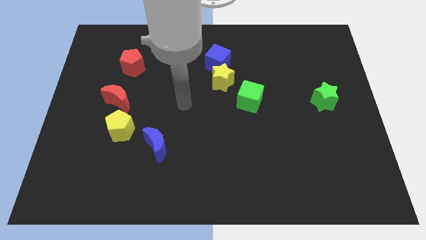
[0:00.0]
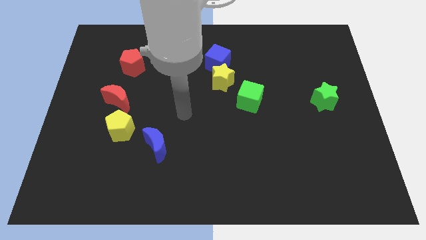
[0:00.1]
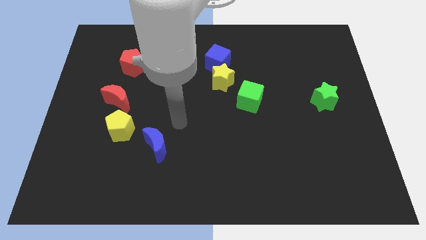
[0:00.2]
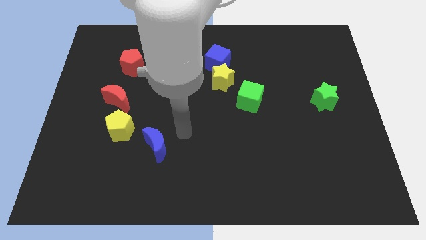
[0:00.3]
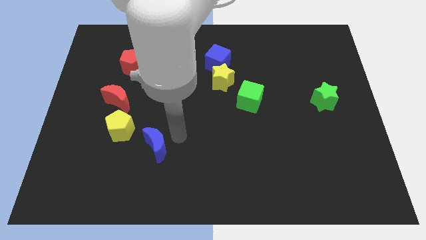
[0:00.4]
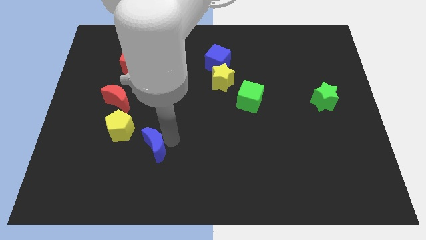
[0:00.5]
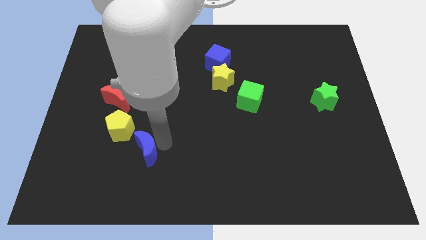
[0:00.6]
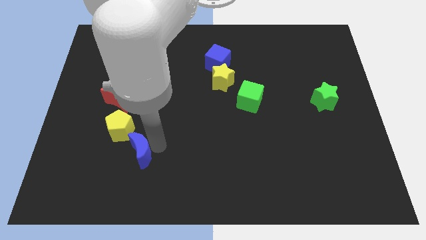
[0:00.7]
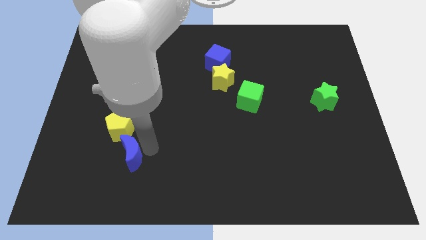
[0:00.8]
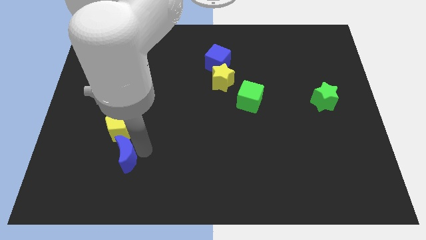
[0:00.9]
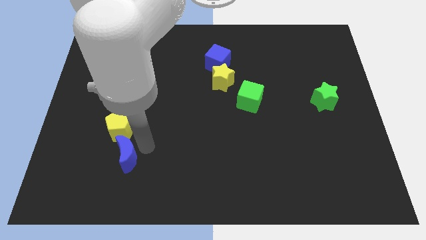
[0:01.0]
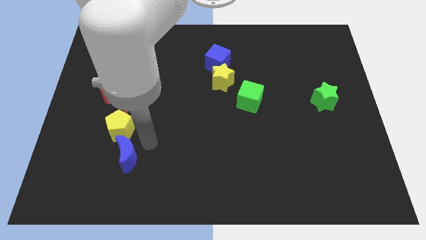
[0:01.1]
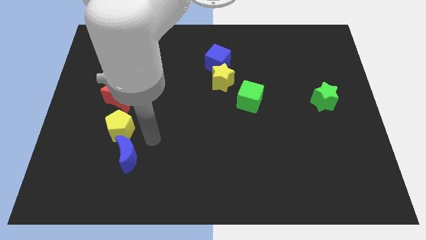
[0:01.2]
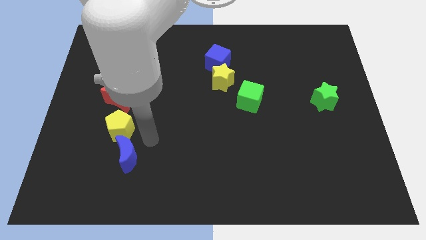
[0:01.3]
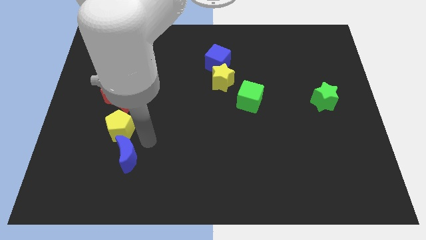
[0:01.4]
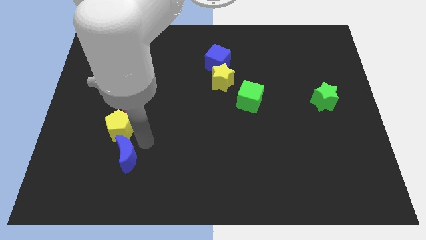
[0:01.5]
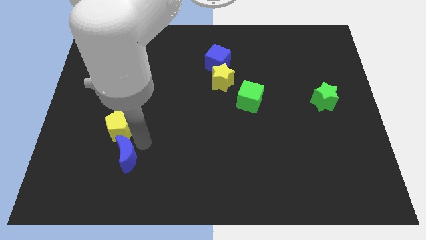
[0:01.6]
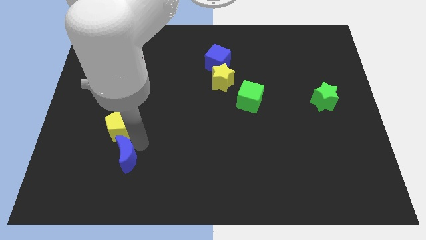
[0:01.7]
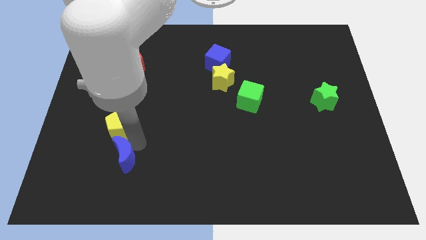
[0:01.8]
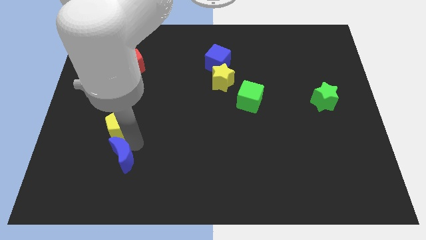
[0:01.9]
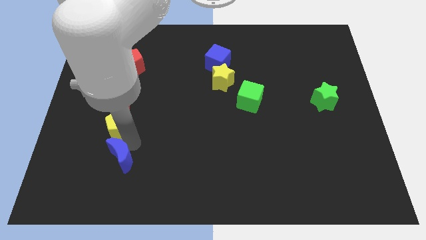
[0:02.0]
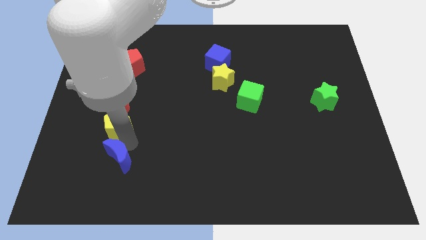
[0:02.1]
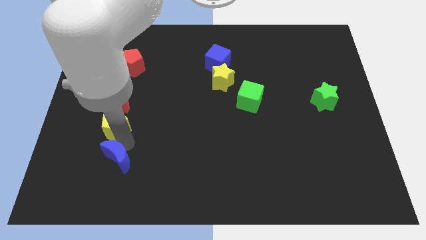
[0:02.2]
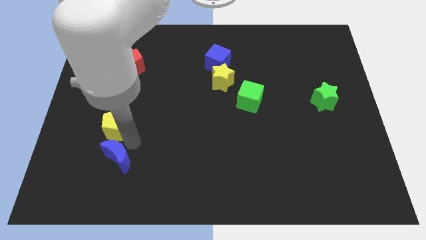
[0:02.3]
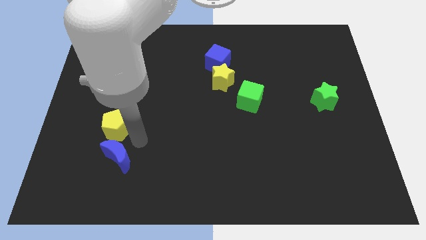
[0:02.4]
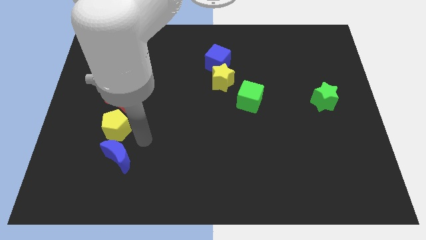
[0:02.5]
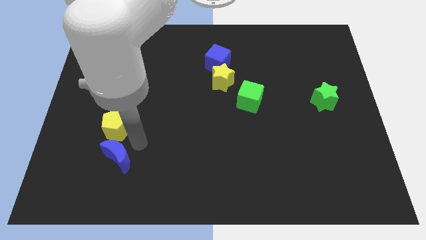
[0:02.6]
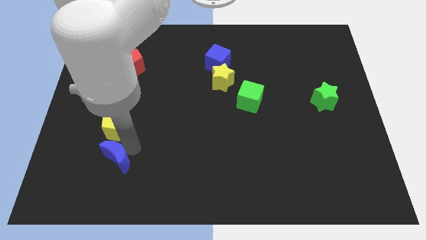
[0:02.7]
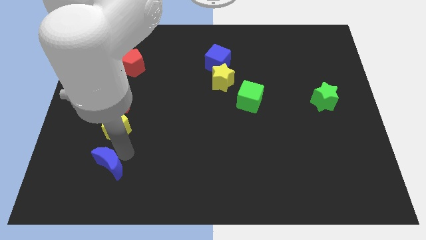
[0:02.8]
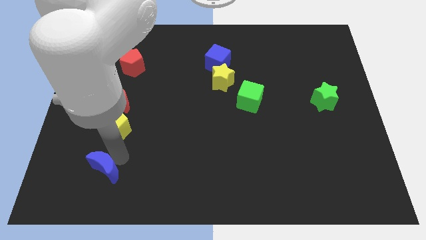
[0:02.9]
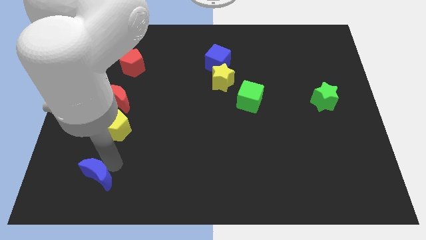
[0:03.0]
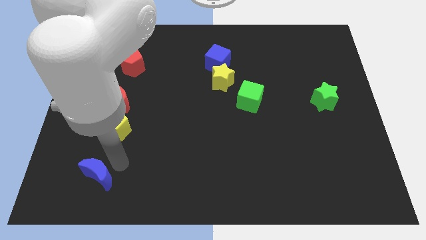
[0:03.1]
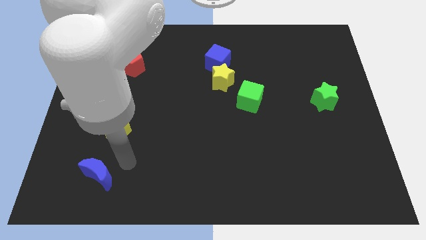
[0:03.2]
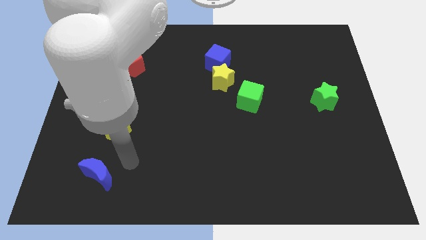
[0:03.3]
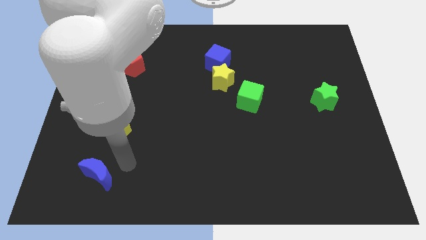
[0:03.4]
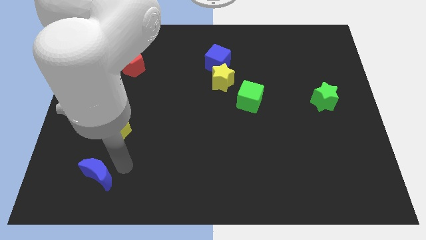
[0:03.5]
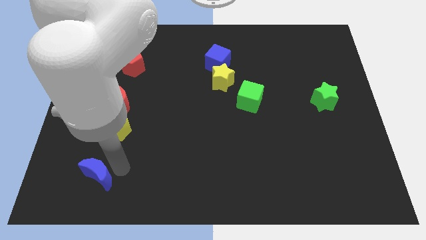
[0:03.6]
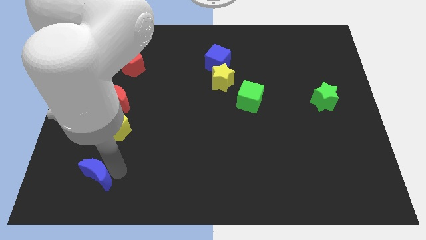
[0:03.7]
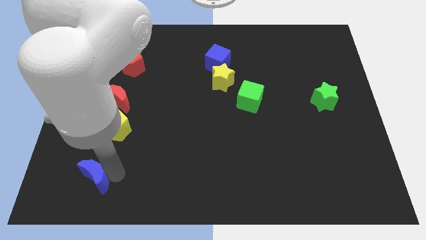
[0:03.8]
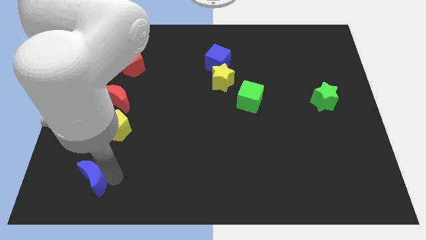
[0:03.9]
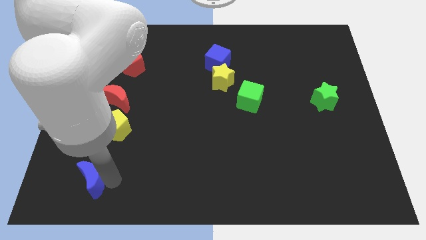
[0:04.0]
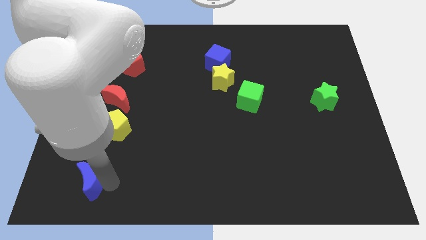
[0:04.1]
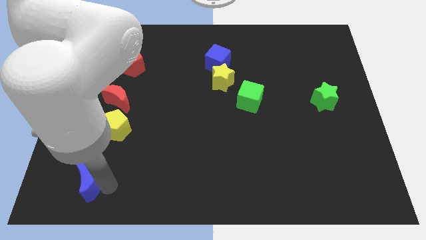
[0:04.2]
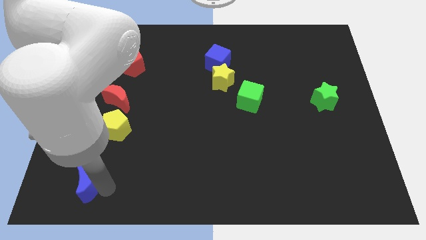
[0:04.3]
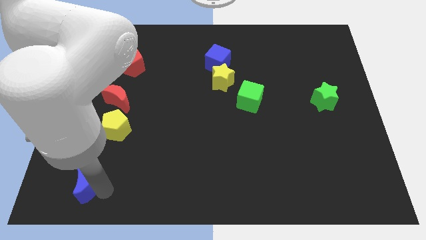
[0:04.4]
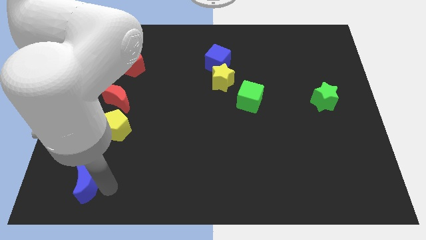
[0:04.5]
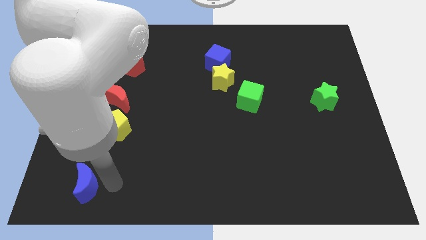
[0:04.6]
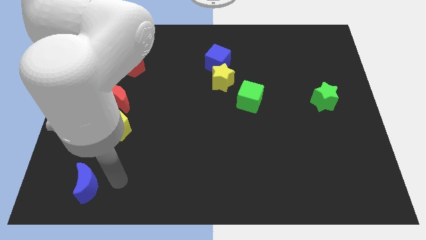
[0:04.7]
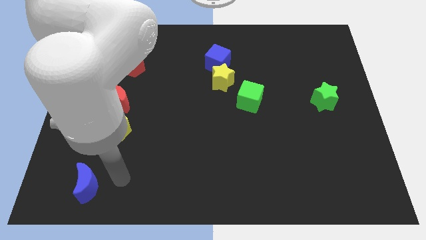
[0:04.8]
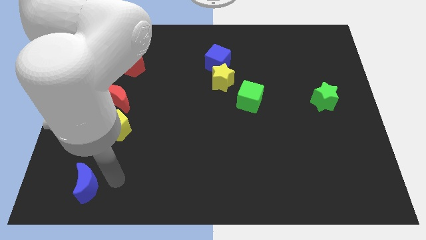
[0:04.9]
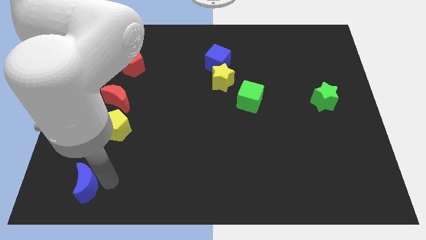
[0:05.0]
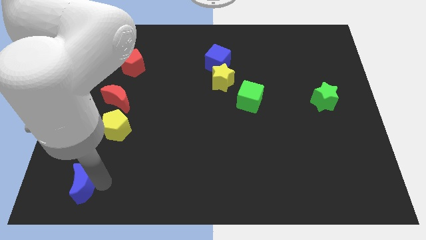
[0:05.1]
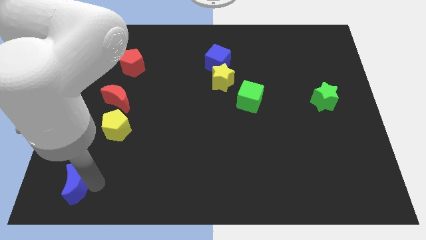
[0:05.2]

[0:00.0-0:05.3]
push the blue moon to the bottom left corner

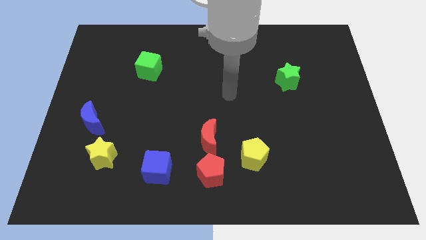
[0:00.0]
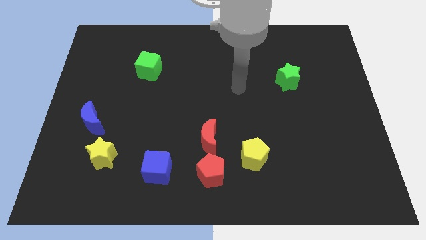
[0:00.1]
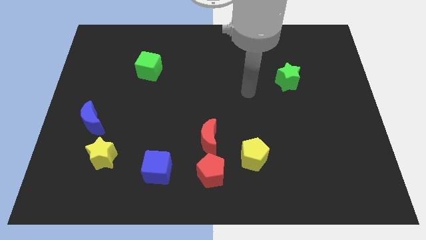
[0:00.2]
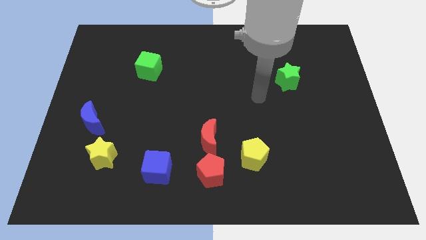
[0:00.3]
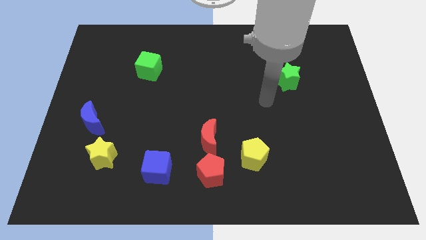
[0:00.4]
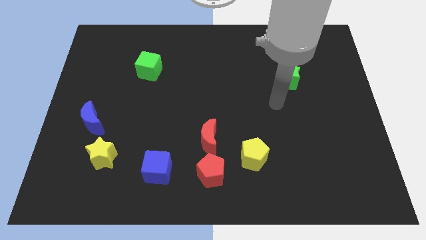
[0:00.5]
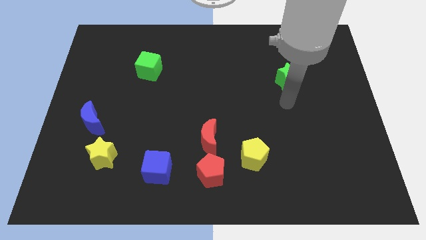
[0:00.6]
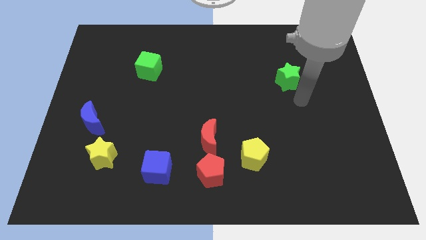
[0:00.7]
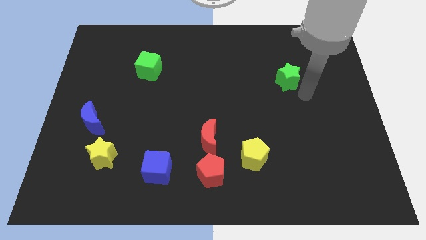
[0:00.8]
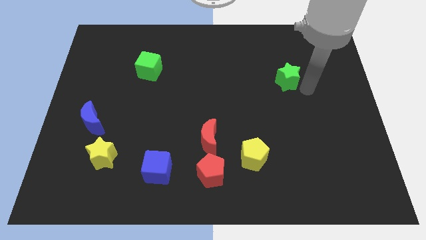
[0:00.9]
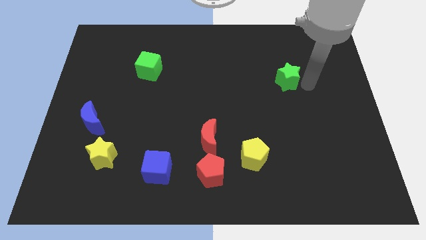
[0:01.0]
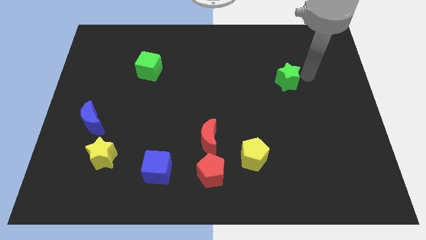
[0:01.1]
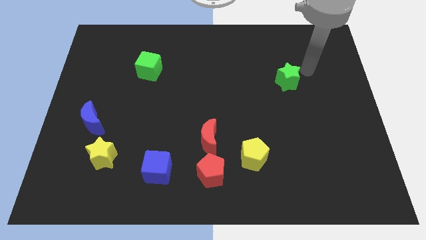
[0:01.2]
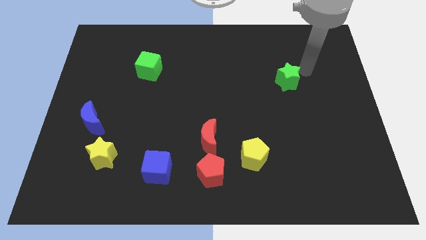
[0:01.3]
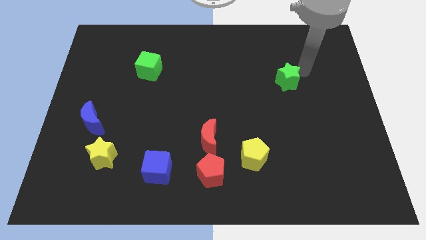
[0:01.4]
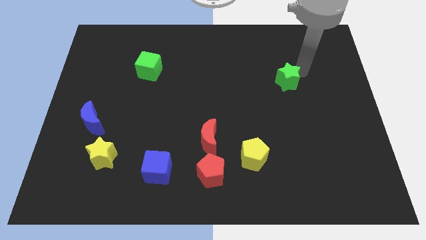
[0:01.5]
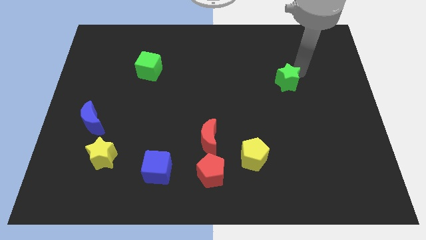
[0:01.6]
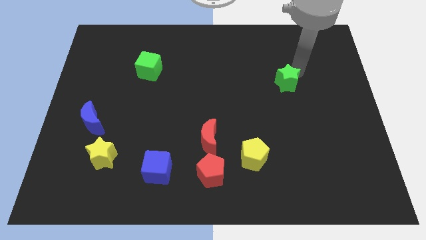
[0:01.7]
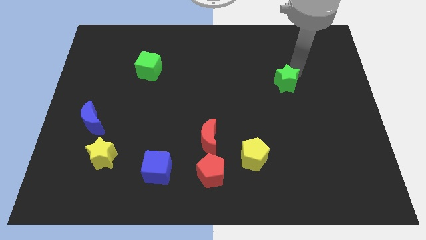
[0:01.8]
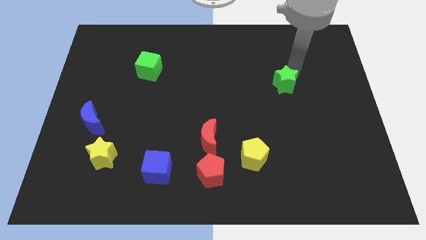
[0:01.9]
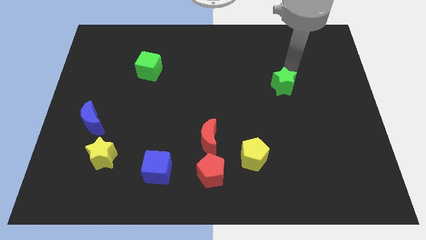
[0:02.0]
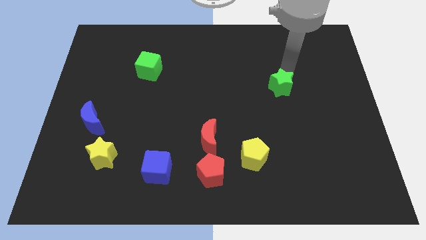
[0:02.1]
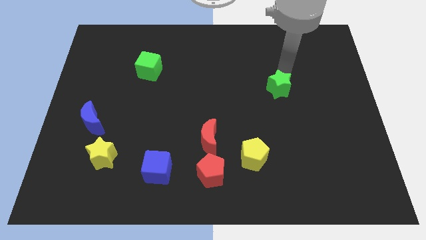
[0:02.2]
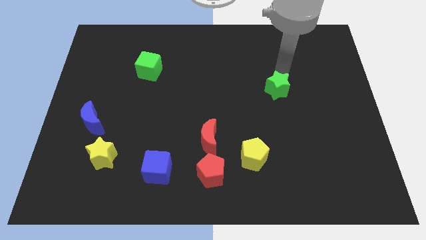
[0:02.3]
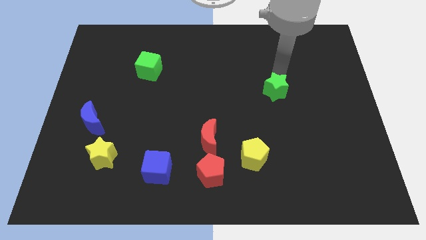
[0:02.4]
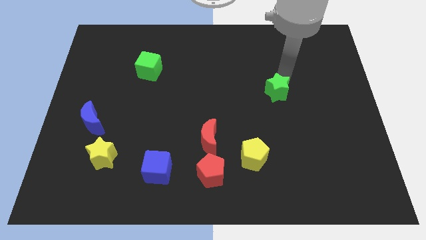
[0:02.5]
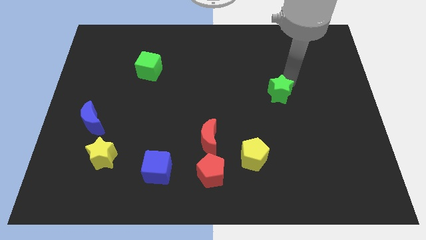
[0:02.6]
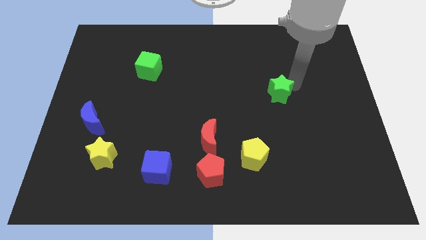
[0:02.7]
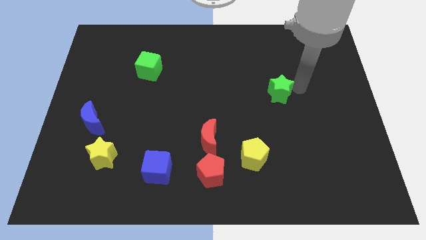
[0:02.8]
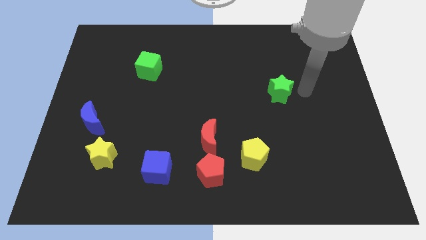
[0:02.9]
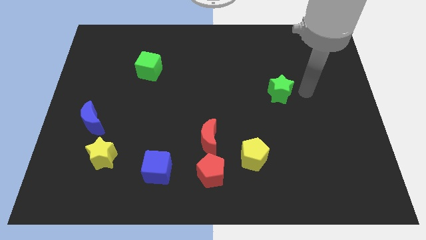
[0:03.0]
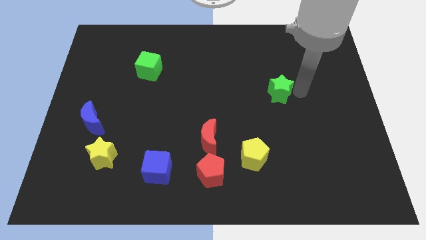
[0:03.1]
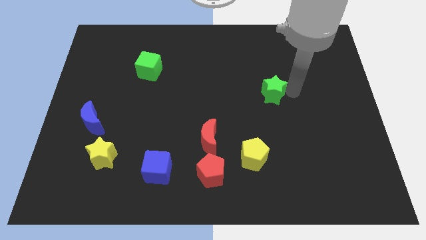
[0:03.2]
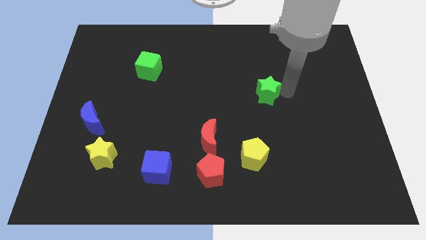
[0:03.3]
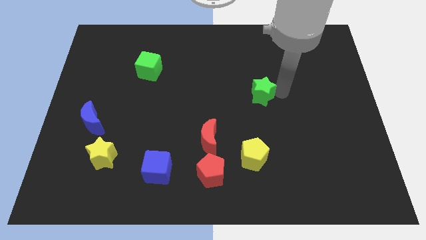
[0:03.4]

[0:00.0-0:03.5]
put the green star to the center
